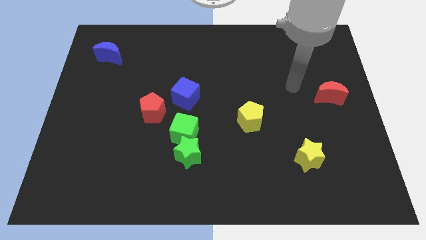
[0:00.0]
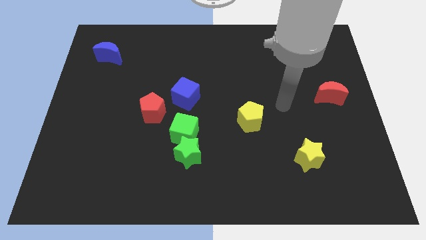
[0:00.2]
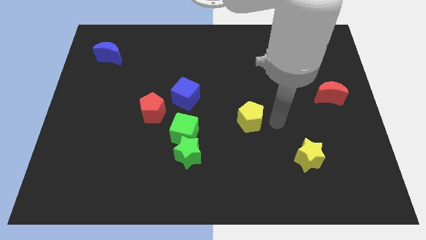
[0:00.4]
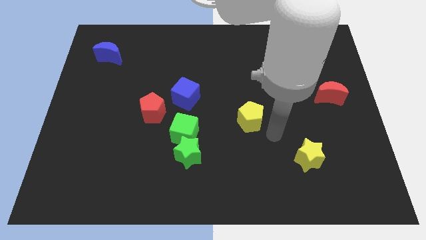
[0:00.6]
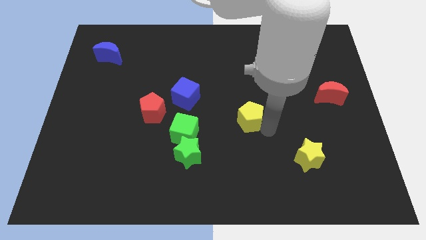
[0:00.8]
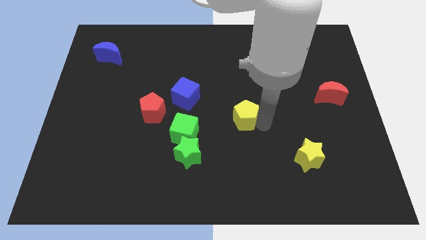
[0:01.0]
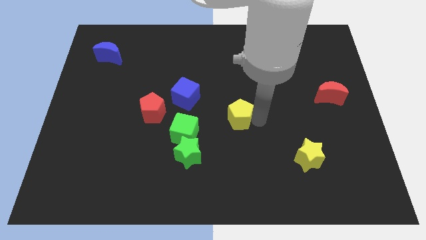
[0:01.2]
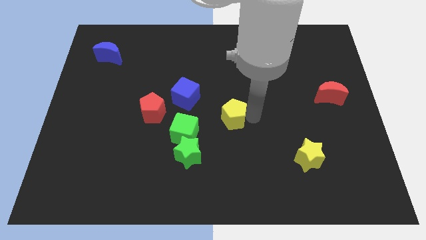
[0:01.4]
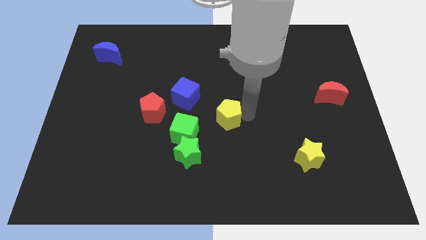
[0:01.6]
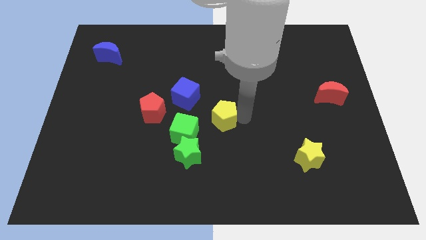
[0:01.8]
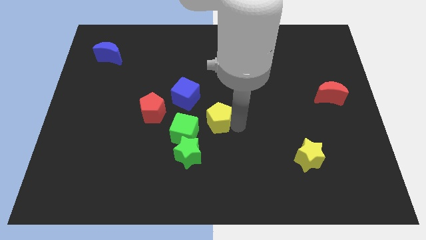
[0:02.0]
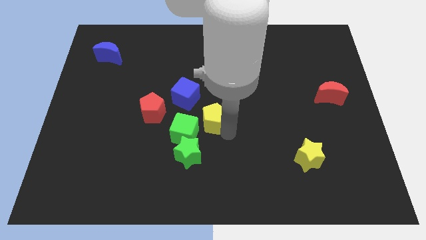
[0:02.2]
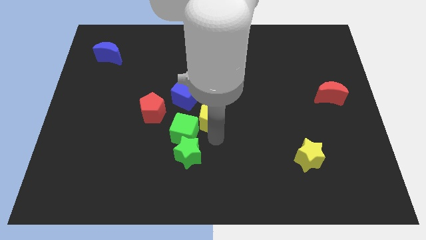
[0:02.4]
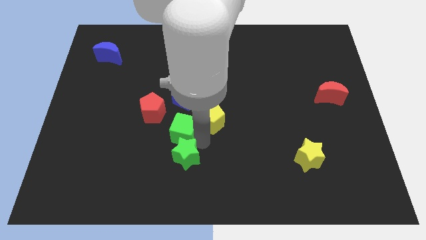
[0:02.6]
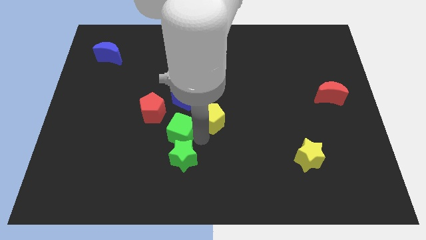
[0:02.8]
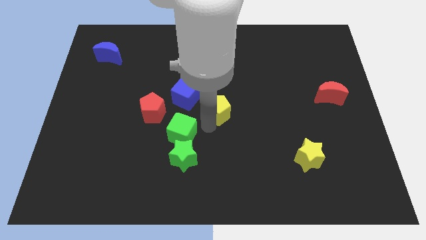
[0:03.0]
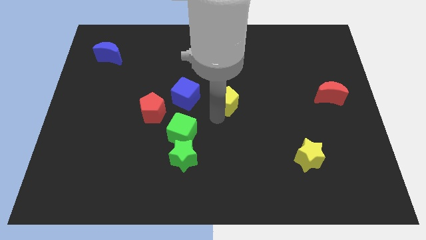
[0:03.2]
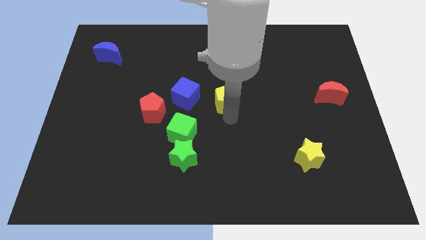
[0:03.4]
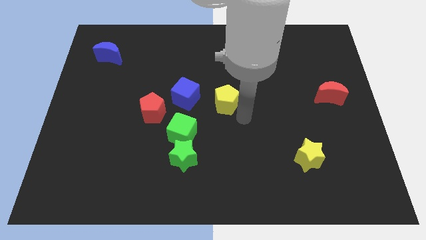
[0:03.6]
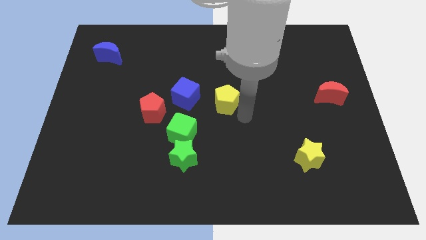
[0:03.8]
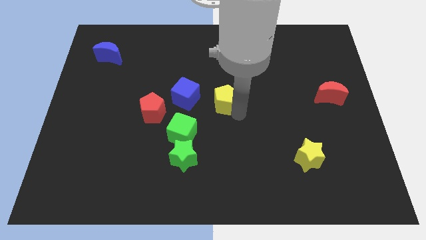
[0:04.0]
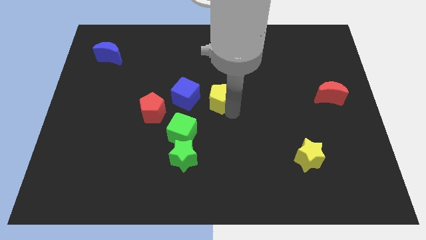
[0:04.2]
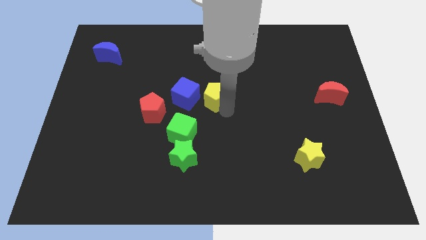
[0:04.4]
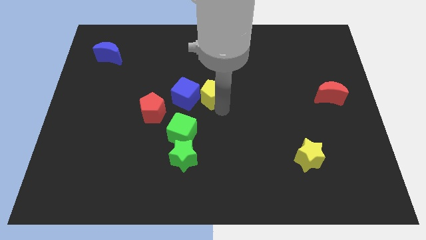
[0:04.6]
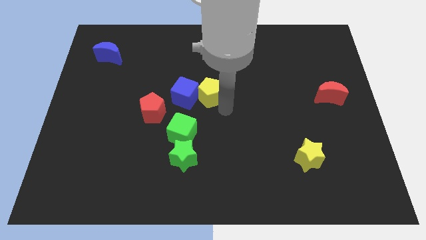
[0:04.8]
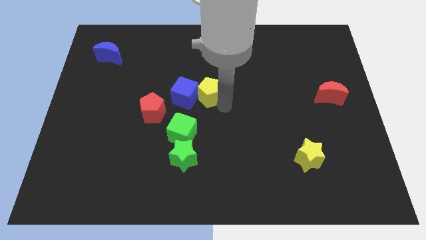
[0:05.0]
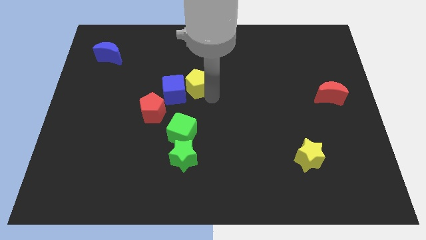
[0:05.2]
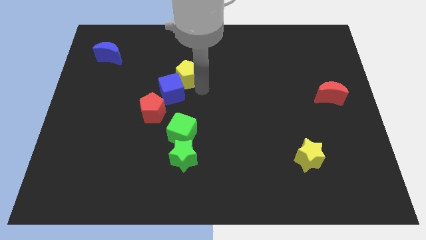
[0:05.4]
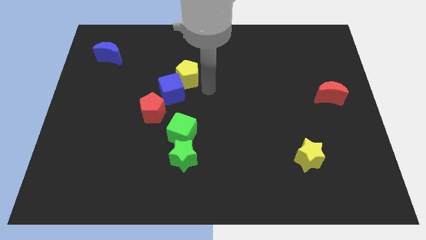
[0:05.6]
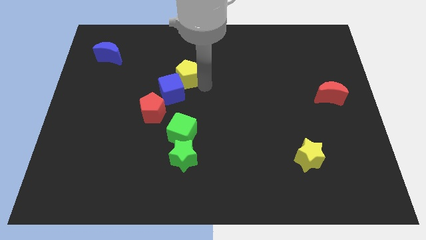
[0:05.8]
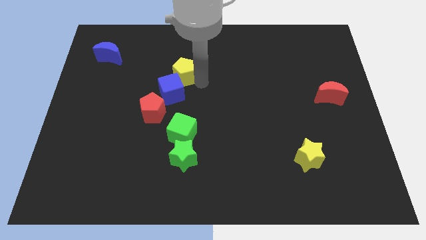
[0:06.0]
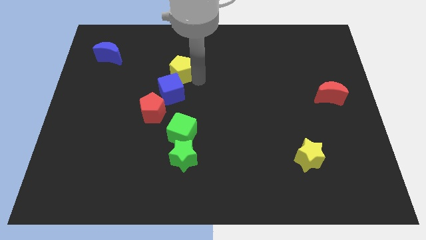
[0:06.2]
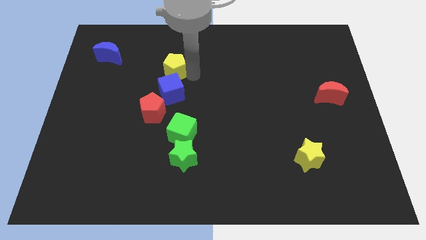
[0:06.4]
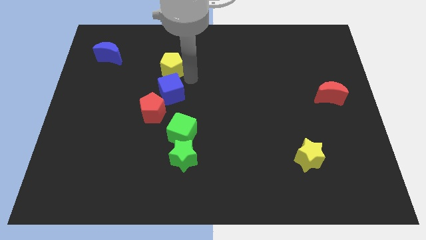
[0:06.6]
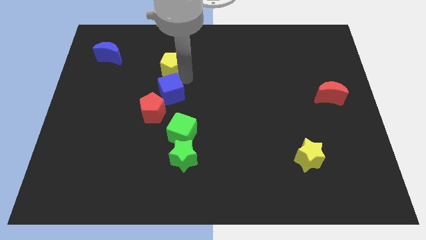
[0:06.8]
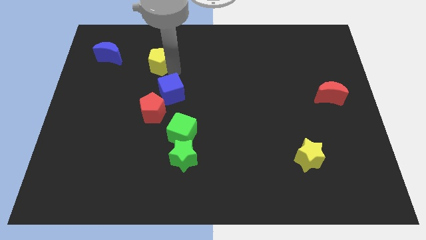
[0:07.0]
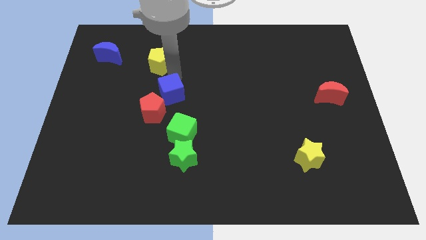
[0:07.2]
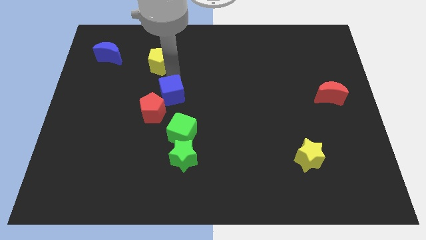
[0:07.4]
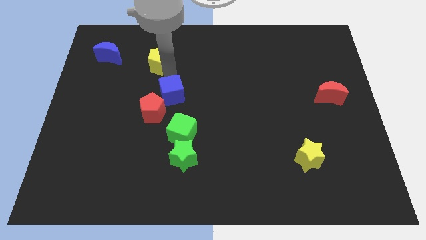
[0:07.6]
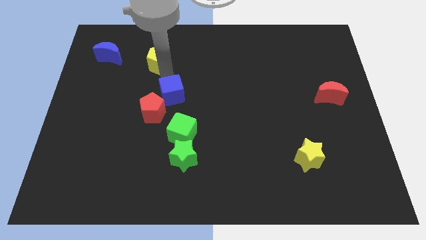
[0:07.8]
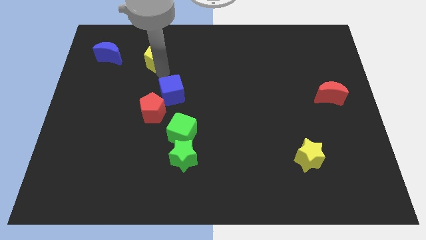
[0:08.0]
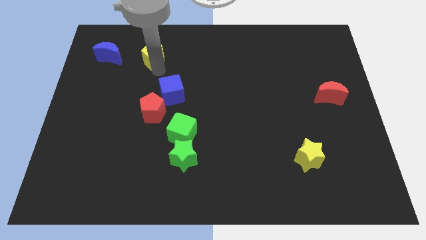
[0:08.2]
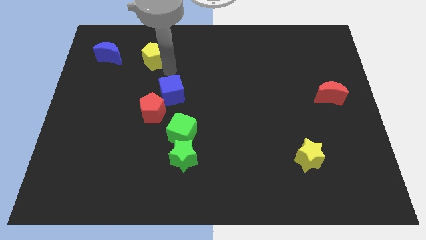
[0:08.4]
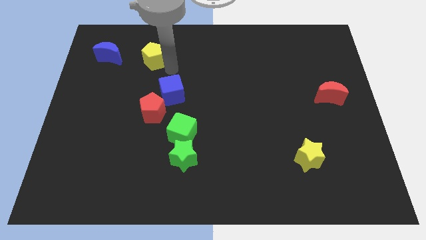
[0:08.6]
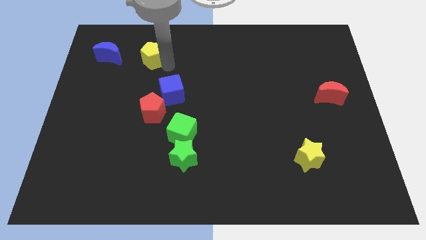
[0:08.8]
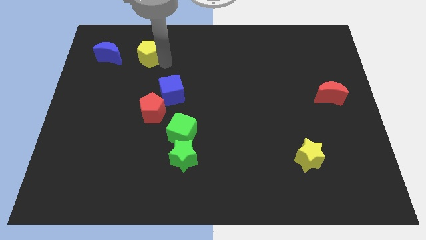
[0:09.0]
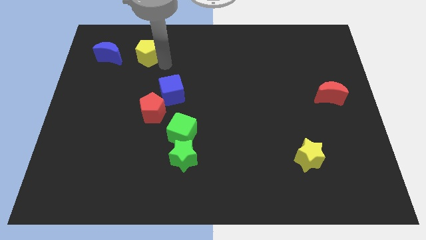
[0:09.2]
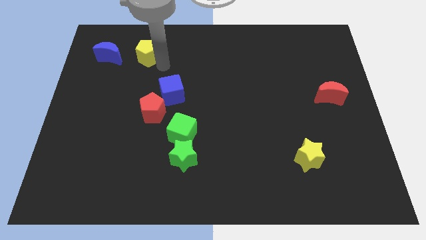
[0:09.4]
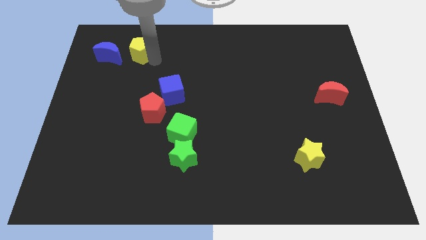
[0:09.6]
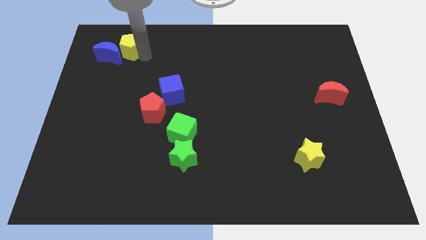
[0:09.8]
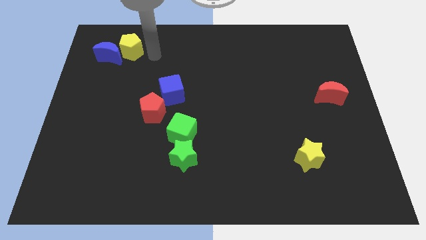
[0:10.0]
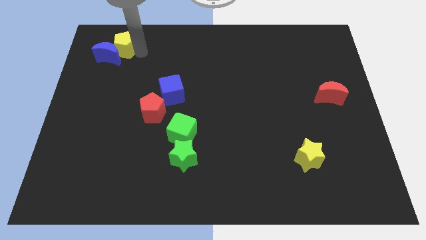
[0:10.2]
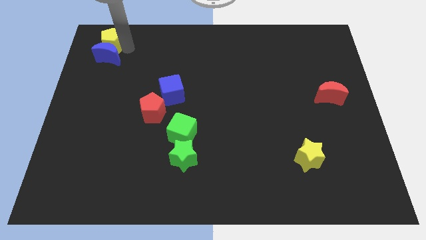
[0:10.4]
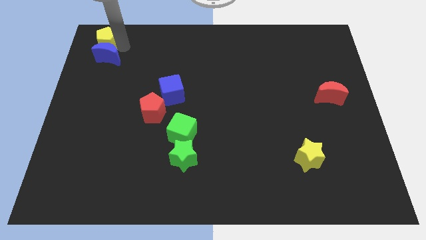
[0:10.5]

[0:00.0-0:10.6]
put the yellow pentagon to the upper left corner

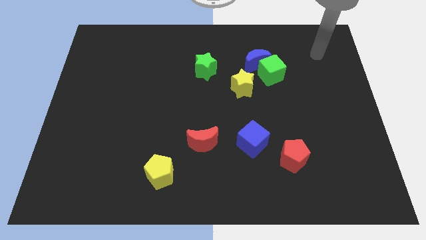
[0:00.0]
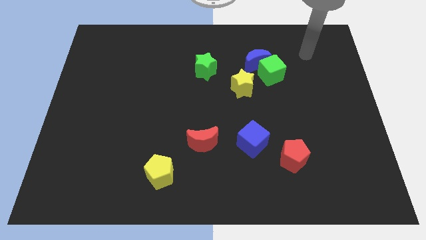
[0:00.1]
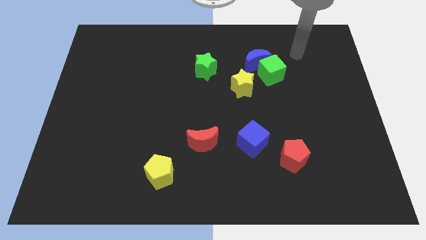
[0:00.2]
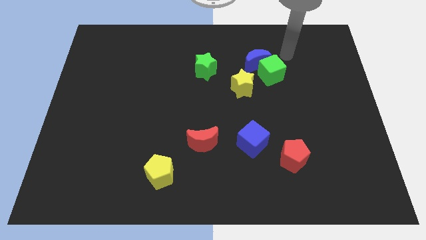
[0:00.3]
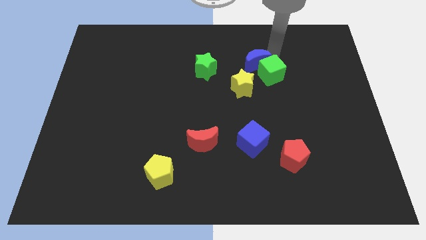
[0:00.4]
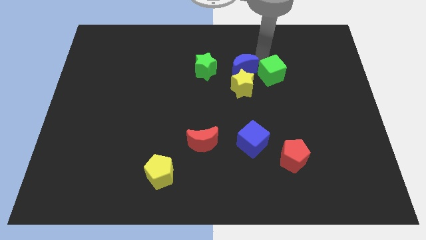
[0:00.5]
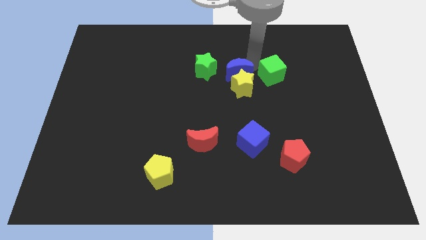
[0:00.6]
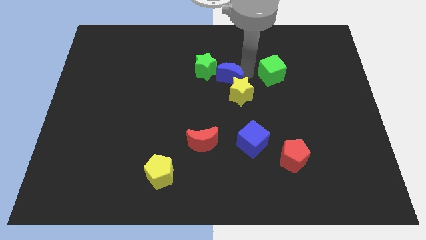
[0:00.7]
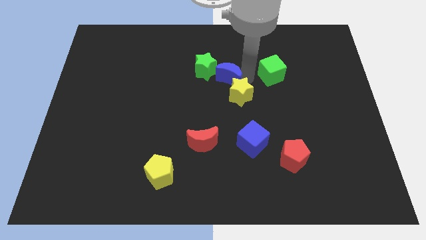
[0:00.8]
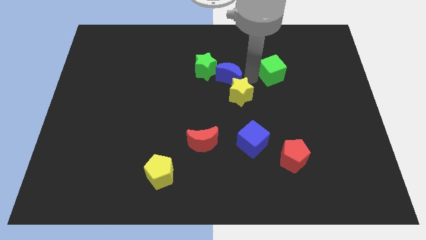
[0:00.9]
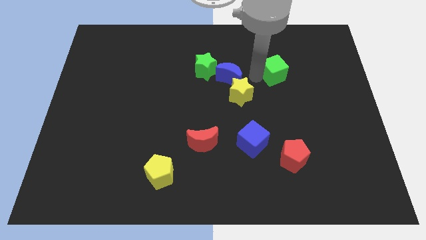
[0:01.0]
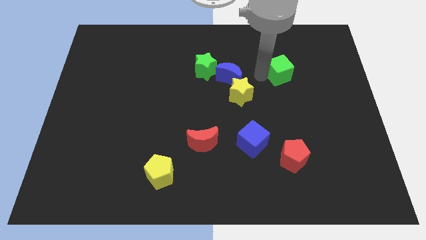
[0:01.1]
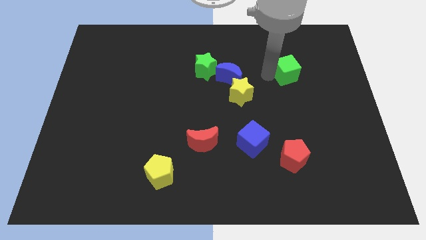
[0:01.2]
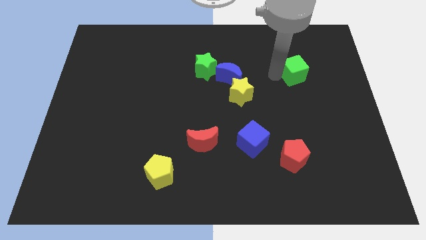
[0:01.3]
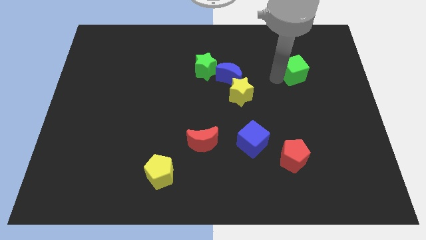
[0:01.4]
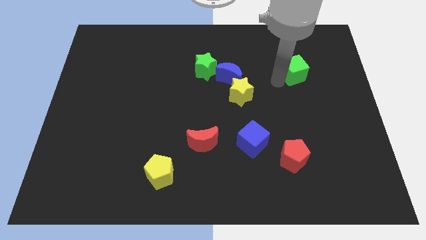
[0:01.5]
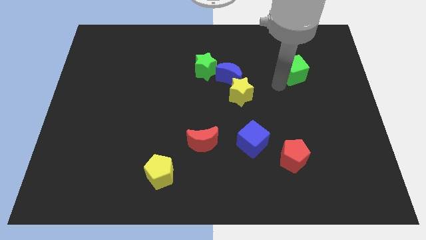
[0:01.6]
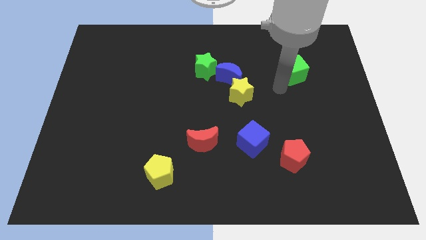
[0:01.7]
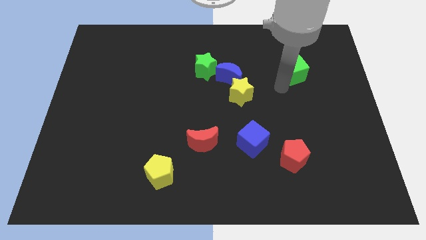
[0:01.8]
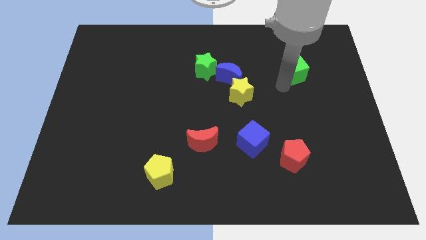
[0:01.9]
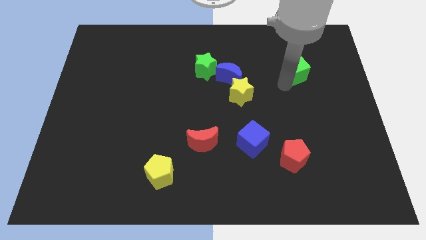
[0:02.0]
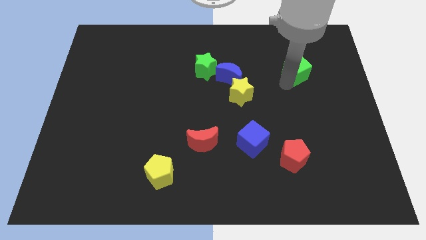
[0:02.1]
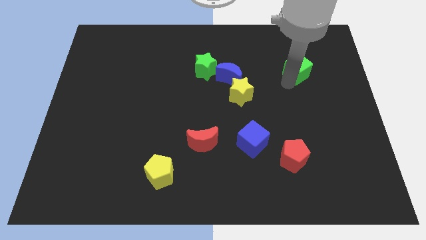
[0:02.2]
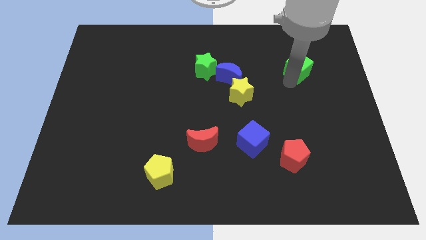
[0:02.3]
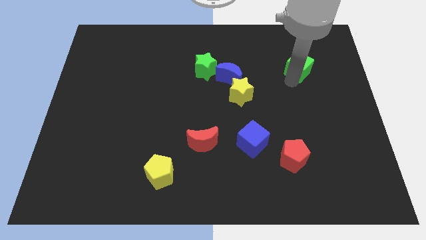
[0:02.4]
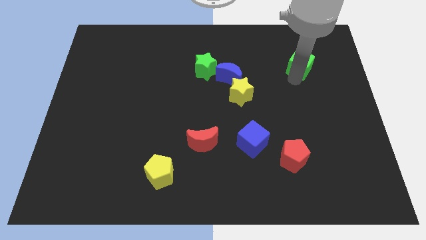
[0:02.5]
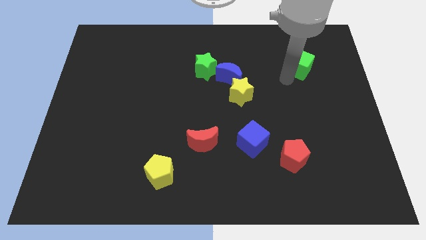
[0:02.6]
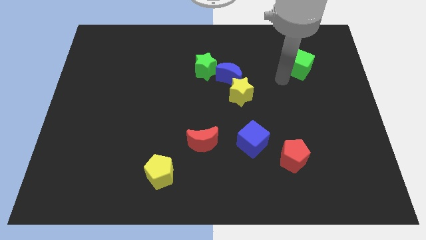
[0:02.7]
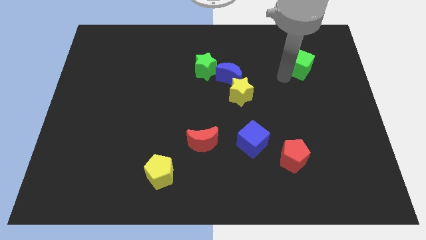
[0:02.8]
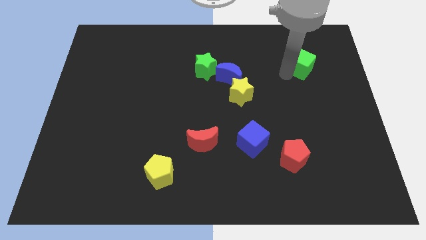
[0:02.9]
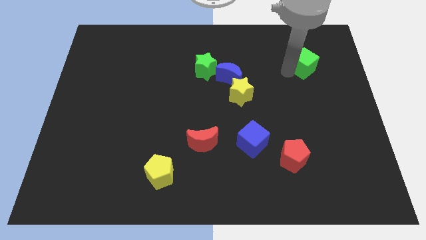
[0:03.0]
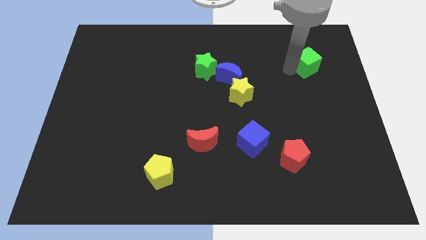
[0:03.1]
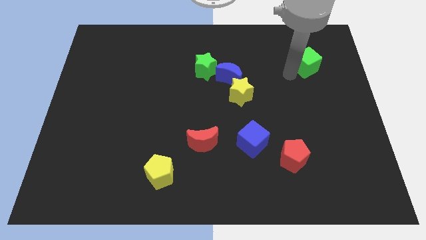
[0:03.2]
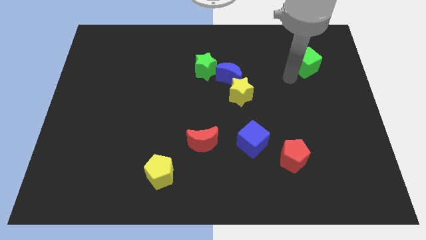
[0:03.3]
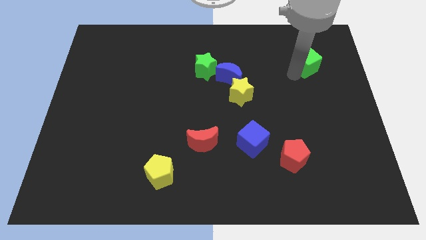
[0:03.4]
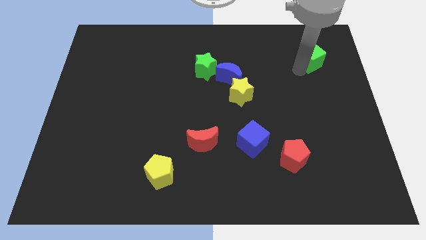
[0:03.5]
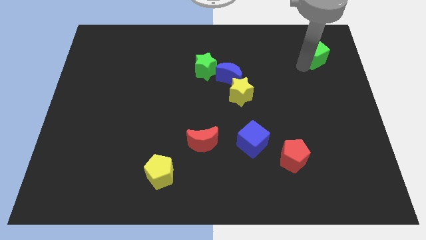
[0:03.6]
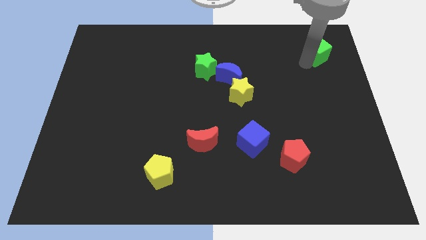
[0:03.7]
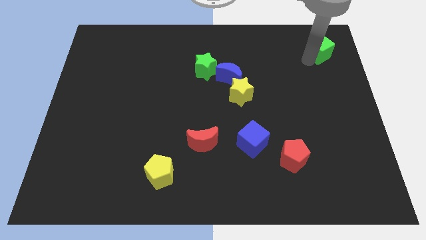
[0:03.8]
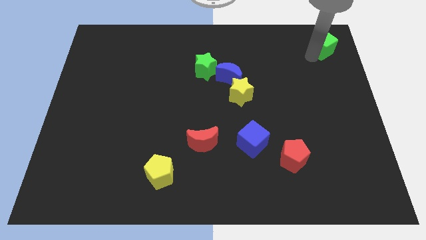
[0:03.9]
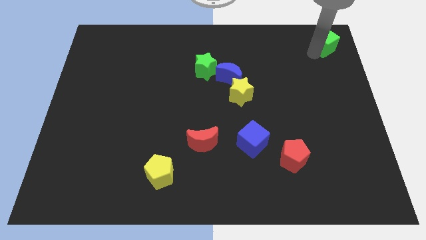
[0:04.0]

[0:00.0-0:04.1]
put the green cube to the upper right corner
